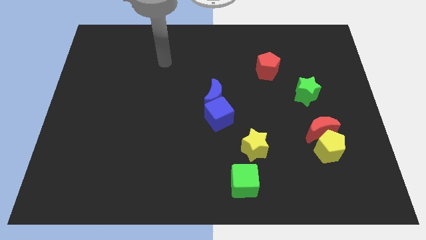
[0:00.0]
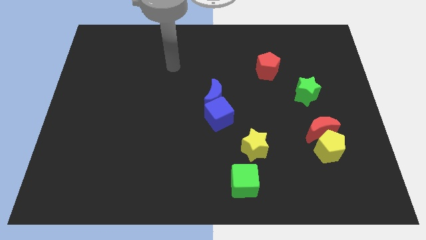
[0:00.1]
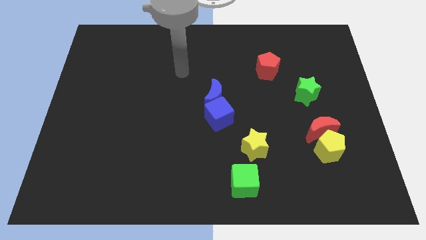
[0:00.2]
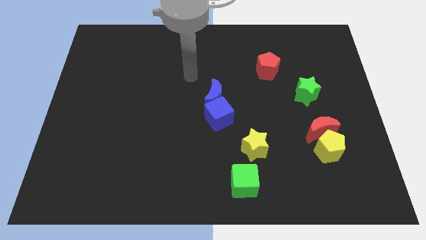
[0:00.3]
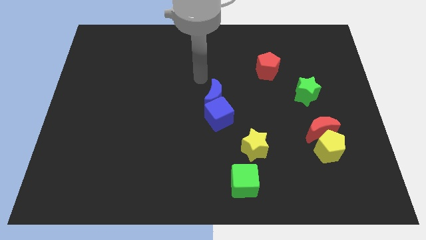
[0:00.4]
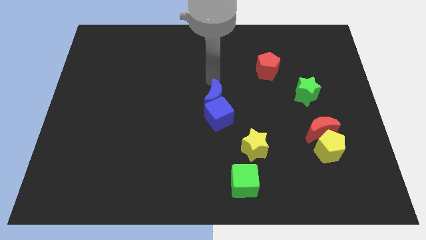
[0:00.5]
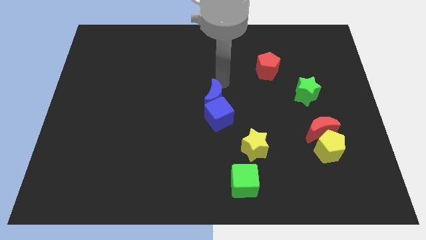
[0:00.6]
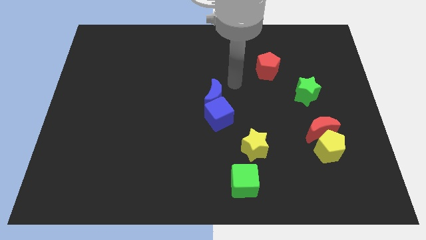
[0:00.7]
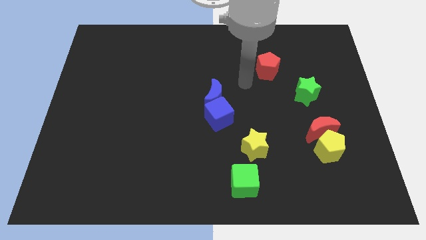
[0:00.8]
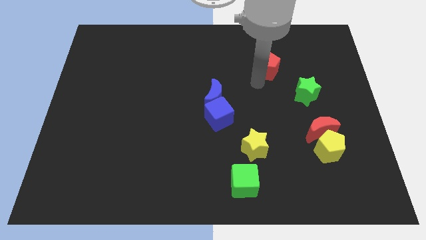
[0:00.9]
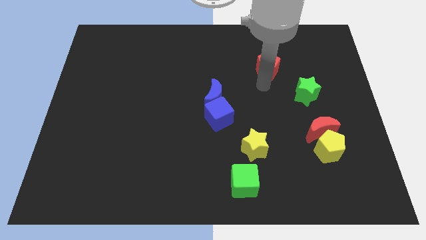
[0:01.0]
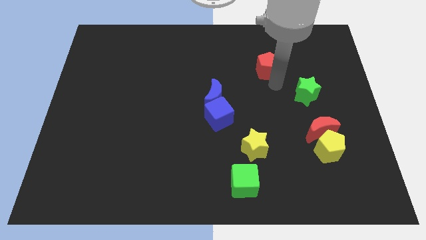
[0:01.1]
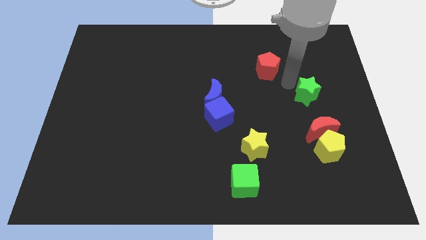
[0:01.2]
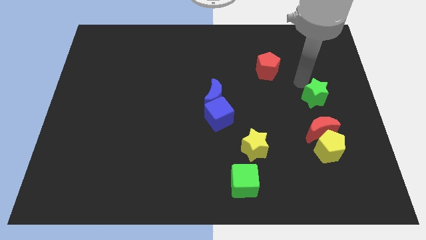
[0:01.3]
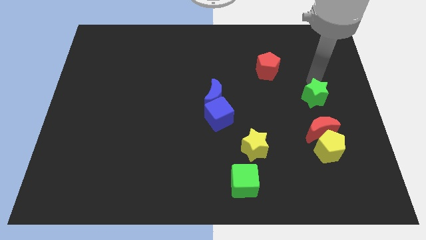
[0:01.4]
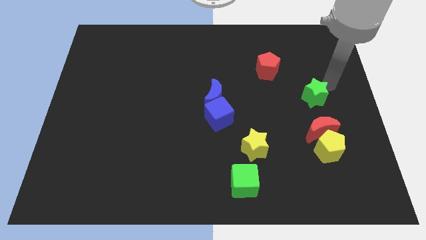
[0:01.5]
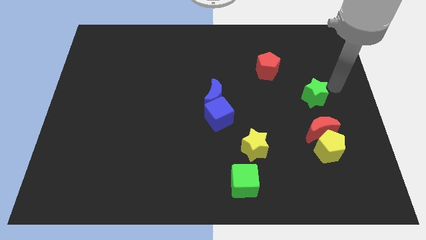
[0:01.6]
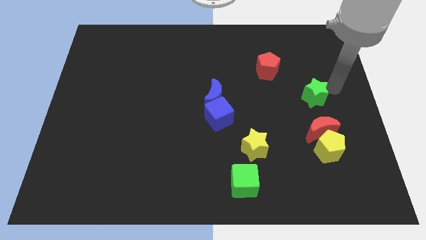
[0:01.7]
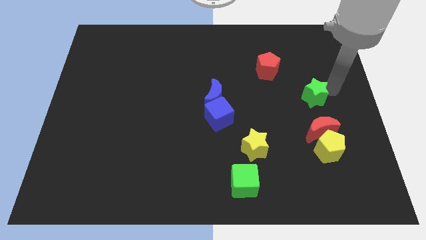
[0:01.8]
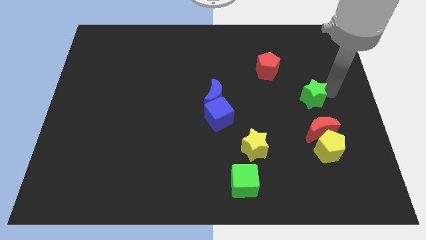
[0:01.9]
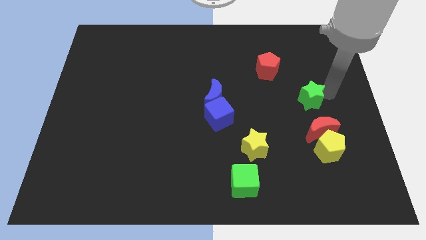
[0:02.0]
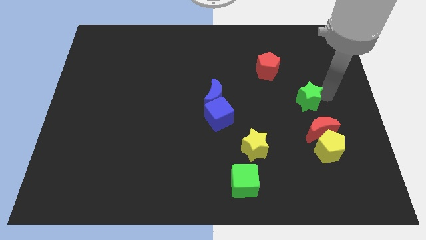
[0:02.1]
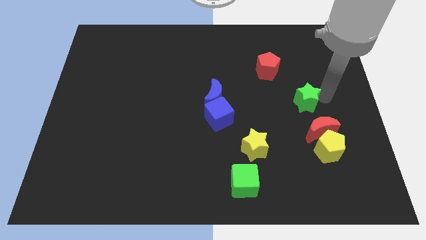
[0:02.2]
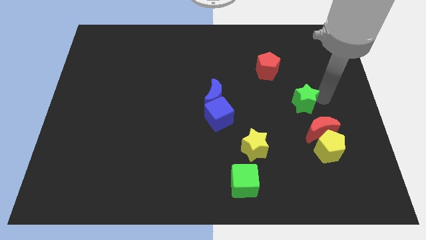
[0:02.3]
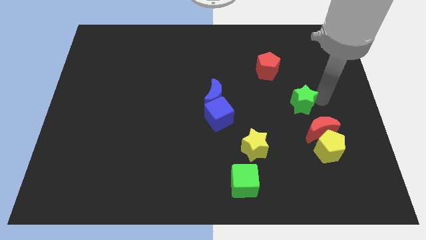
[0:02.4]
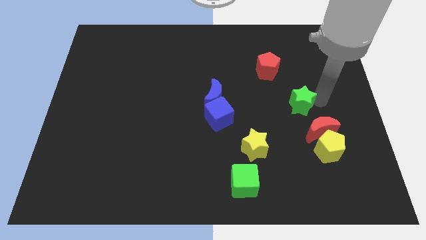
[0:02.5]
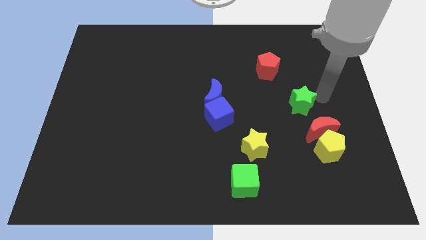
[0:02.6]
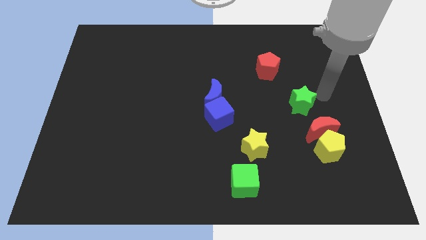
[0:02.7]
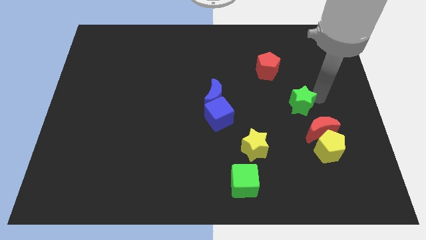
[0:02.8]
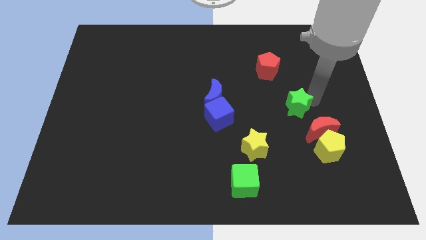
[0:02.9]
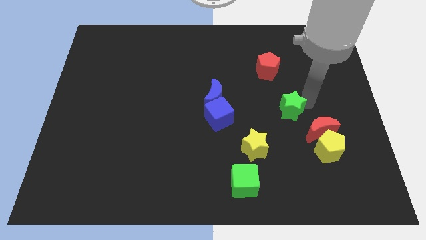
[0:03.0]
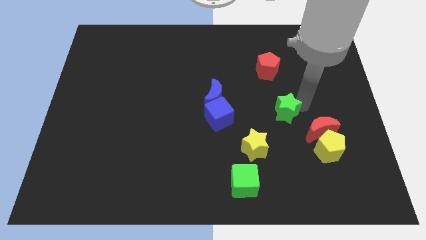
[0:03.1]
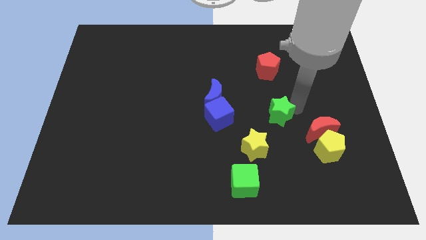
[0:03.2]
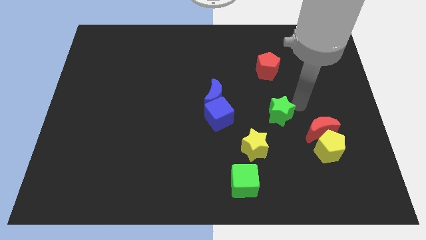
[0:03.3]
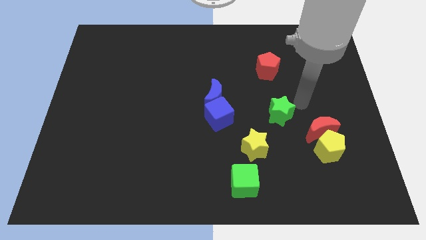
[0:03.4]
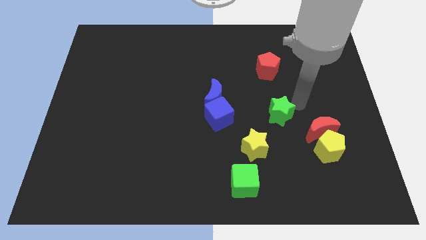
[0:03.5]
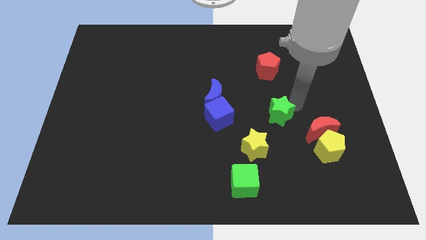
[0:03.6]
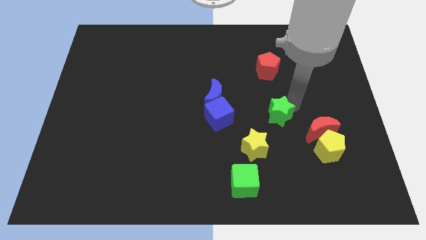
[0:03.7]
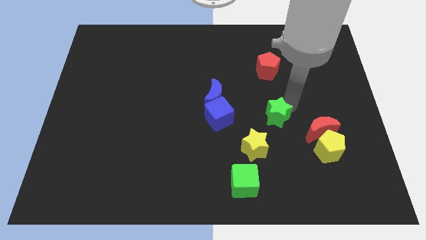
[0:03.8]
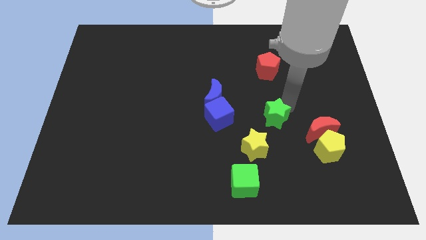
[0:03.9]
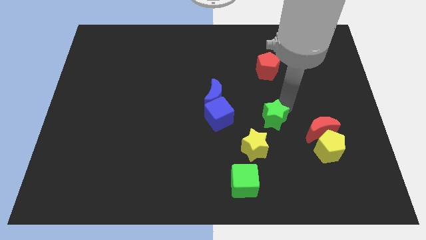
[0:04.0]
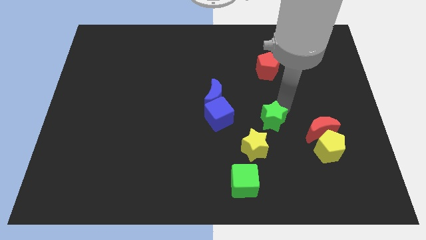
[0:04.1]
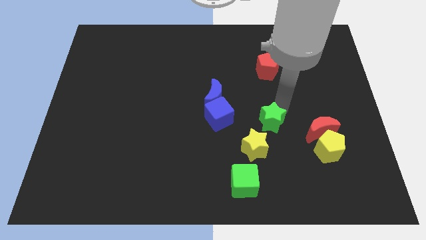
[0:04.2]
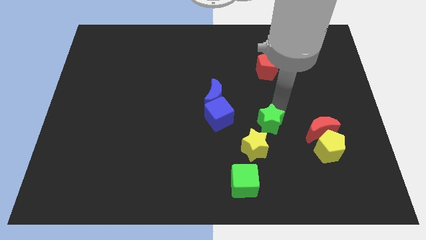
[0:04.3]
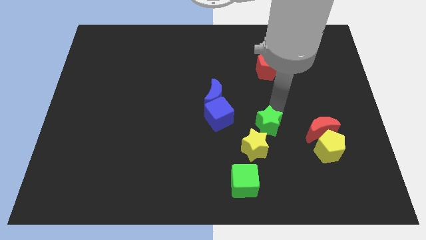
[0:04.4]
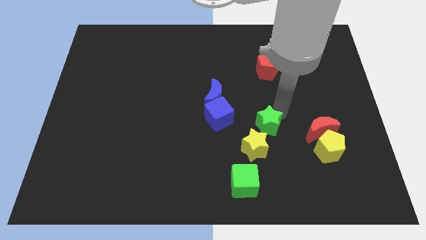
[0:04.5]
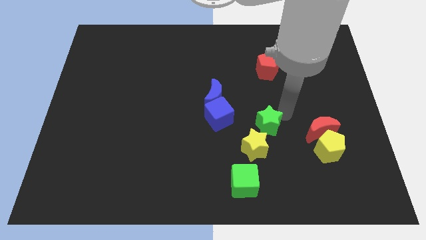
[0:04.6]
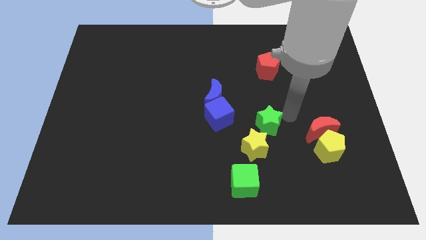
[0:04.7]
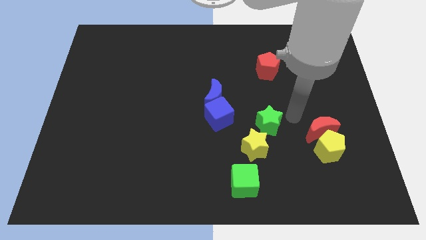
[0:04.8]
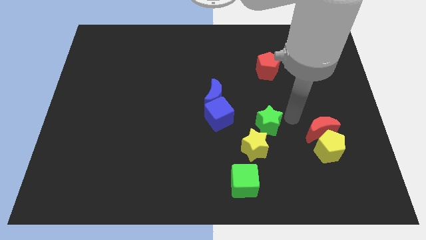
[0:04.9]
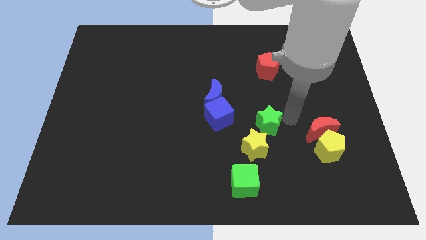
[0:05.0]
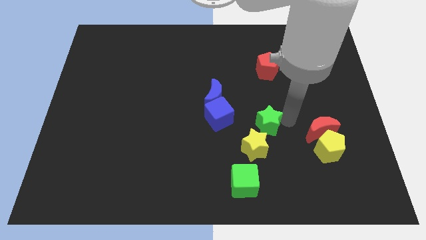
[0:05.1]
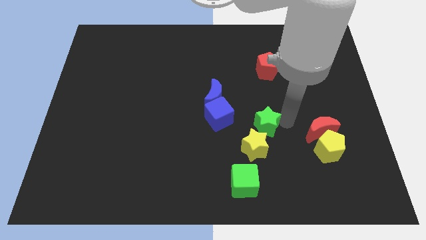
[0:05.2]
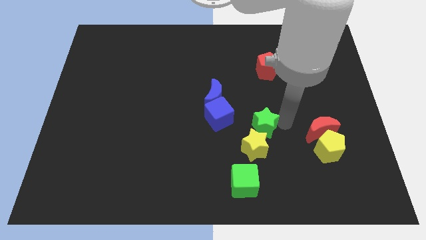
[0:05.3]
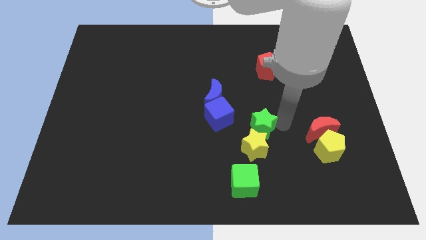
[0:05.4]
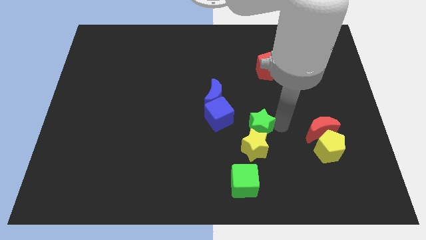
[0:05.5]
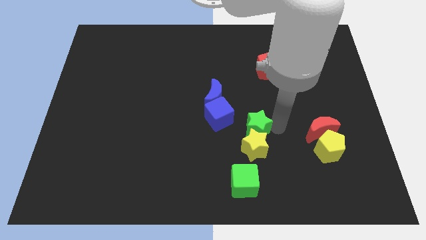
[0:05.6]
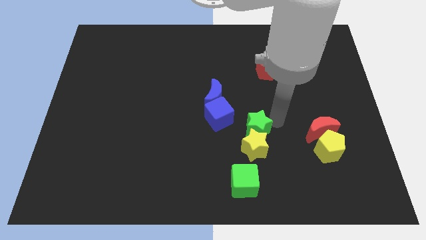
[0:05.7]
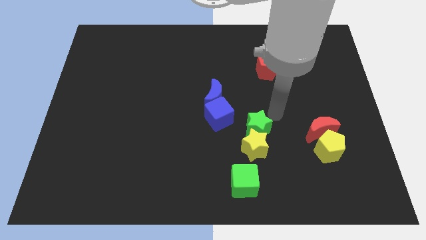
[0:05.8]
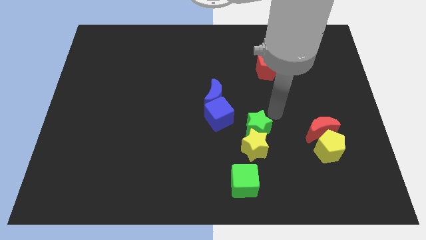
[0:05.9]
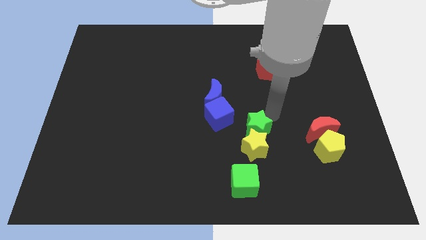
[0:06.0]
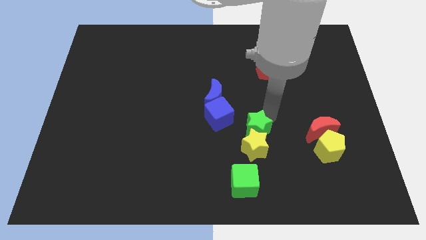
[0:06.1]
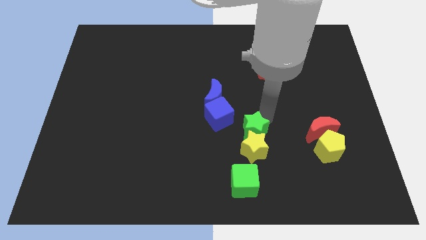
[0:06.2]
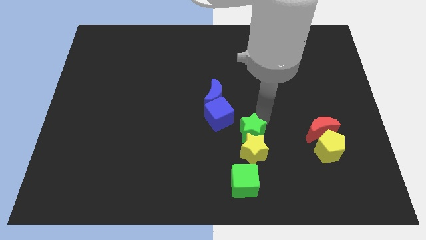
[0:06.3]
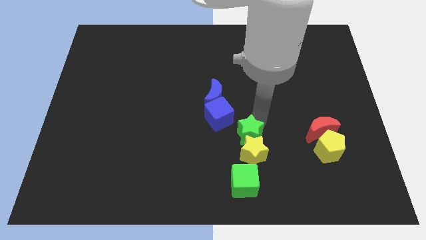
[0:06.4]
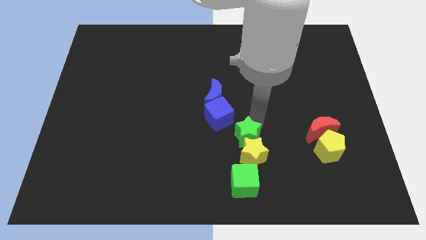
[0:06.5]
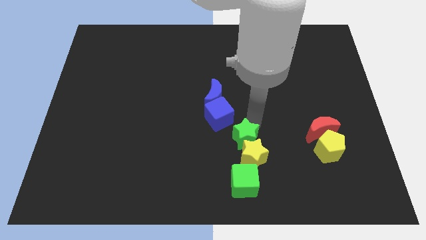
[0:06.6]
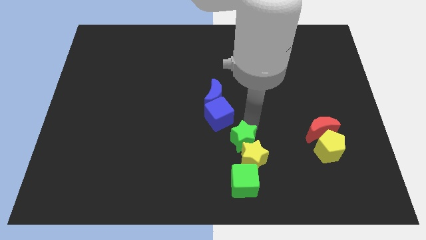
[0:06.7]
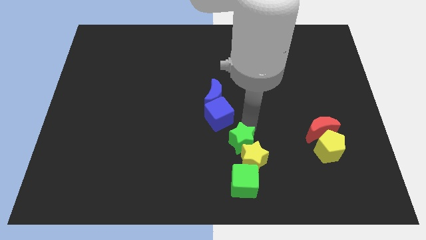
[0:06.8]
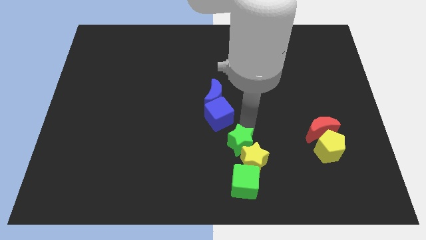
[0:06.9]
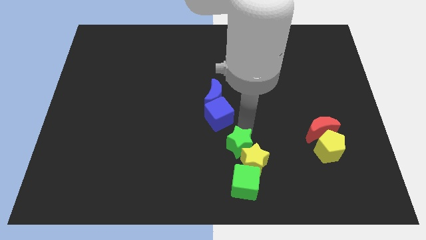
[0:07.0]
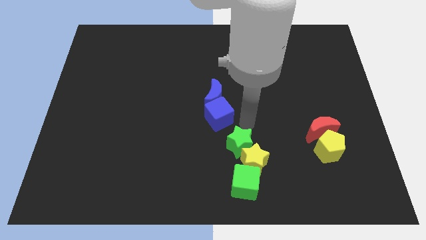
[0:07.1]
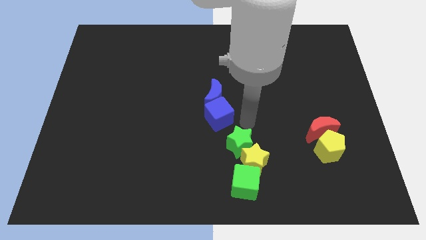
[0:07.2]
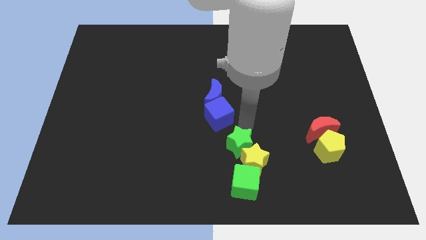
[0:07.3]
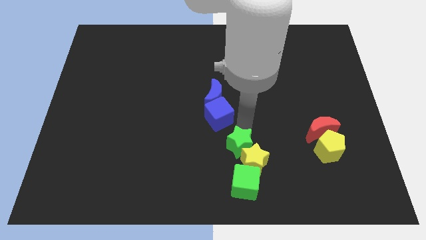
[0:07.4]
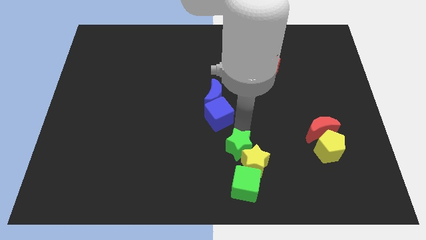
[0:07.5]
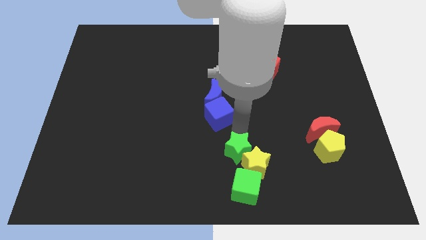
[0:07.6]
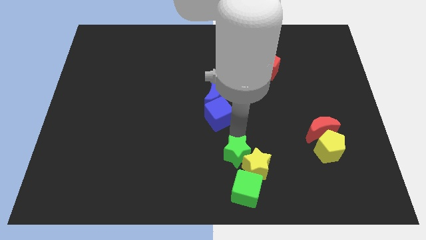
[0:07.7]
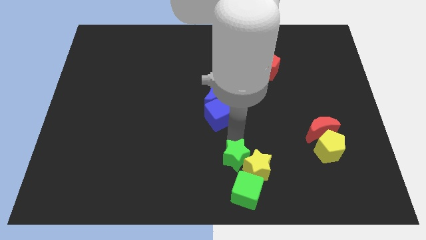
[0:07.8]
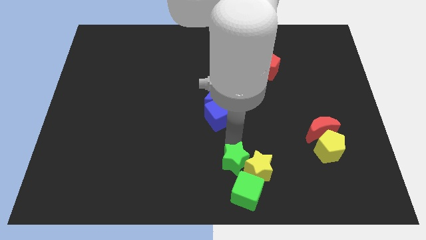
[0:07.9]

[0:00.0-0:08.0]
slide the green star to the bottom left of the yellow star
